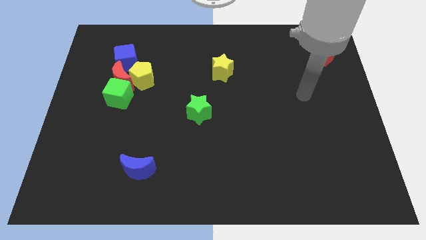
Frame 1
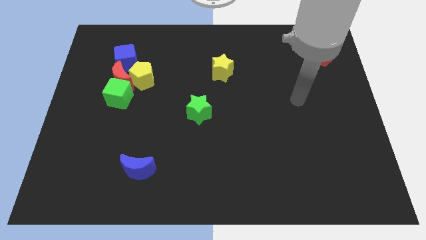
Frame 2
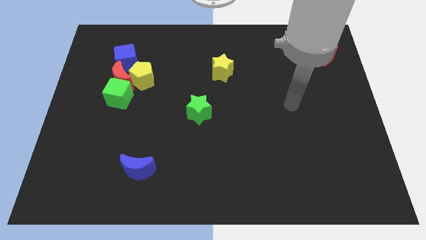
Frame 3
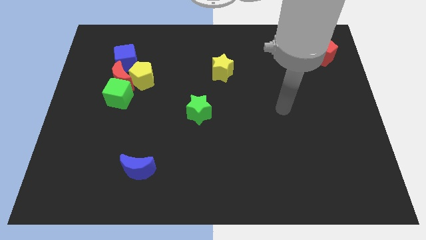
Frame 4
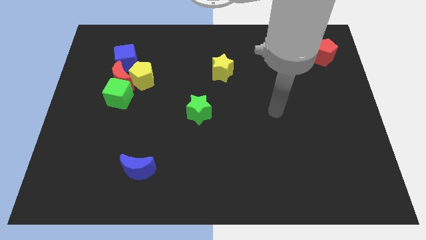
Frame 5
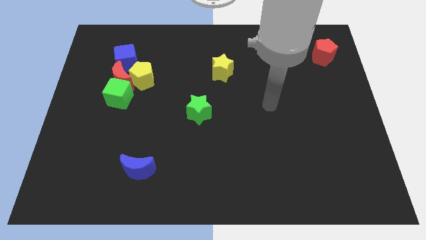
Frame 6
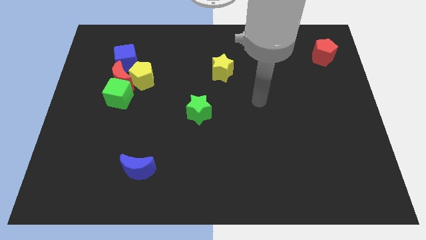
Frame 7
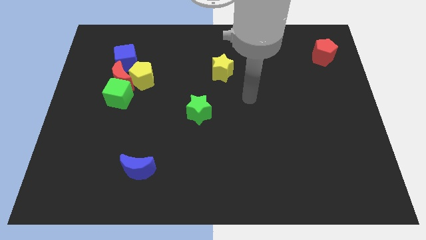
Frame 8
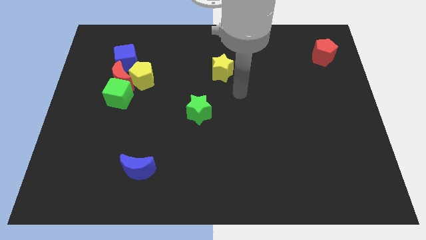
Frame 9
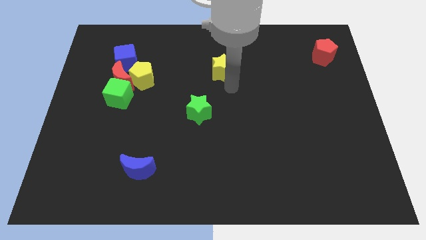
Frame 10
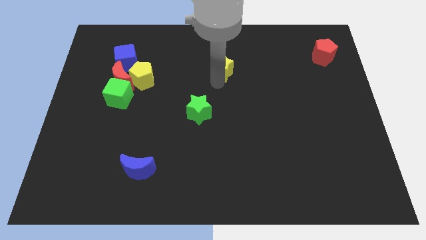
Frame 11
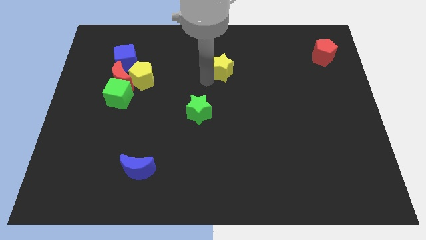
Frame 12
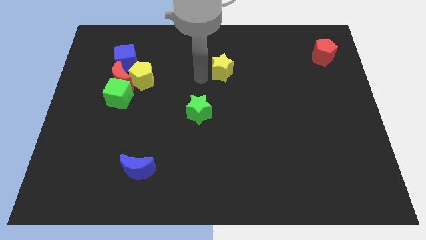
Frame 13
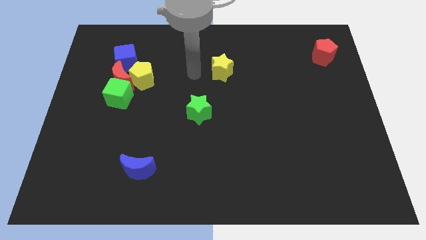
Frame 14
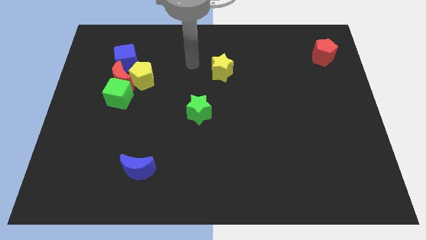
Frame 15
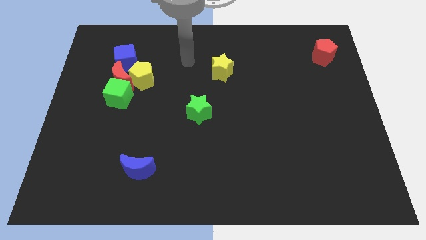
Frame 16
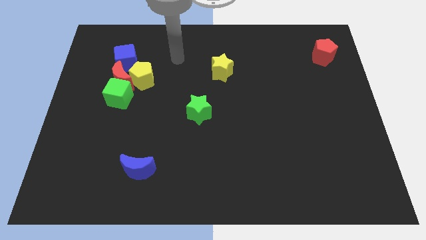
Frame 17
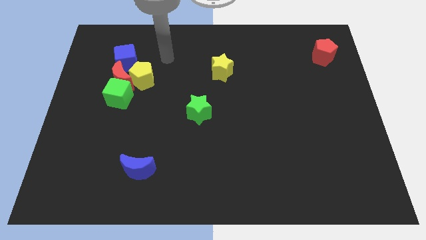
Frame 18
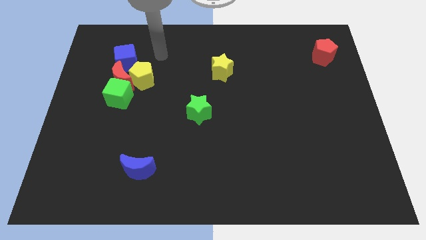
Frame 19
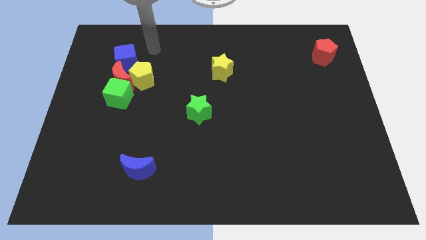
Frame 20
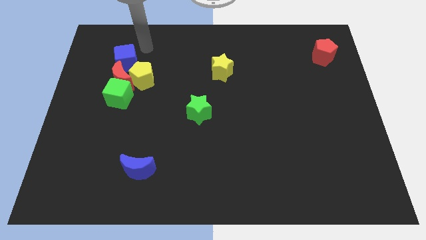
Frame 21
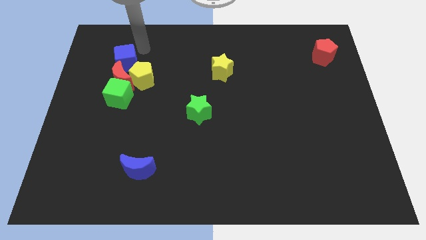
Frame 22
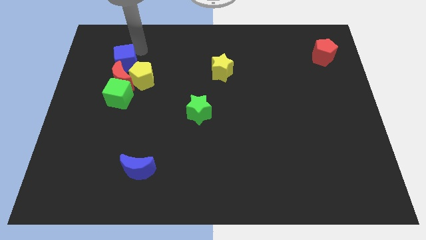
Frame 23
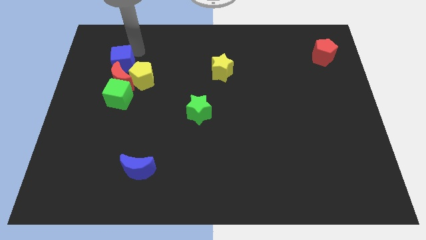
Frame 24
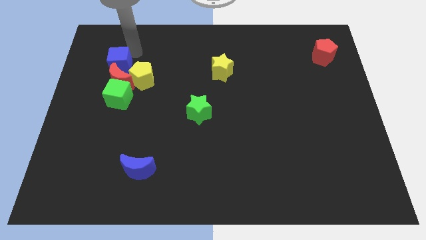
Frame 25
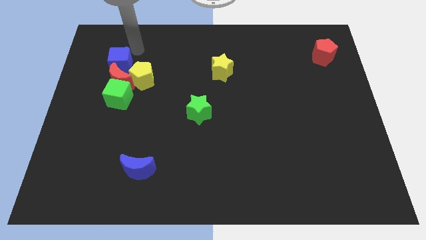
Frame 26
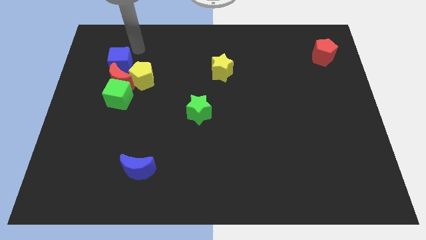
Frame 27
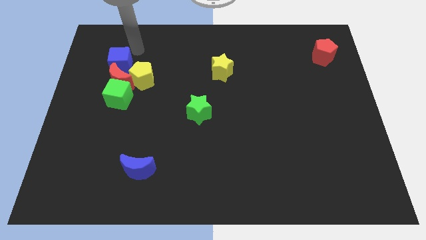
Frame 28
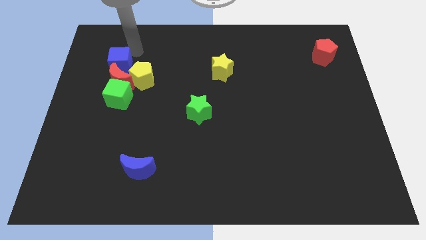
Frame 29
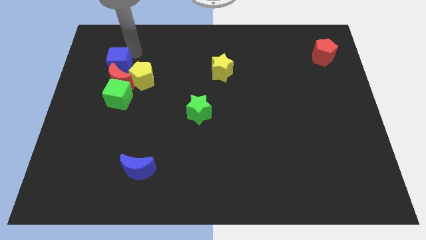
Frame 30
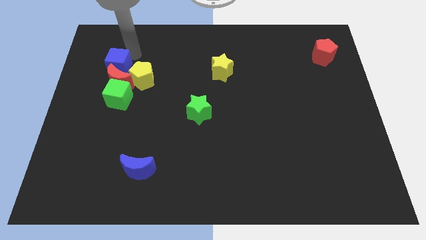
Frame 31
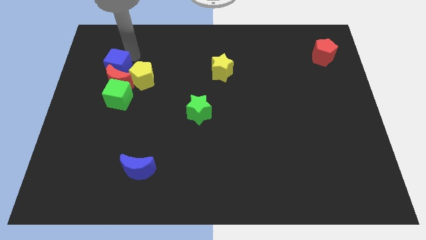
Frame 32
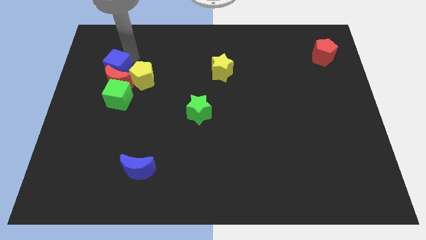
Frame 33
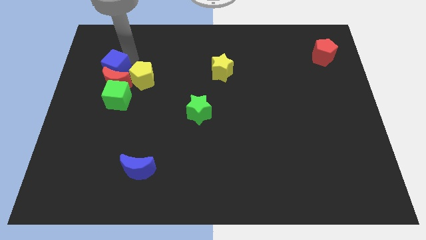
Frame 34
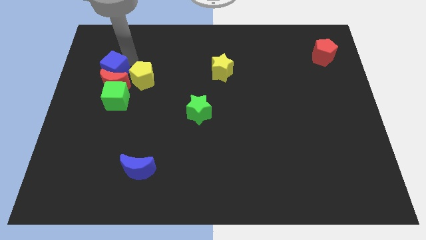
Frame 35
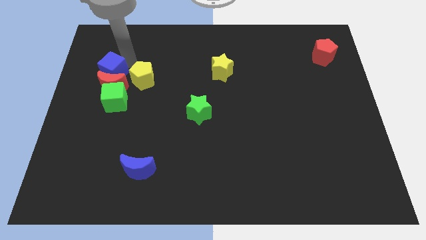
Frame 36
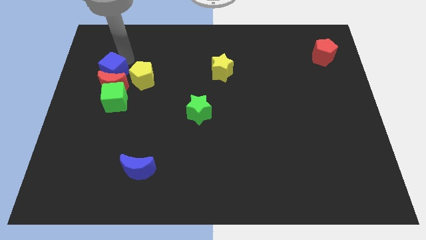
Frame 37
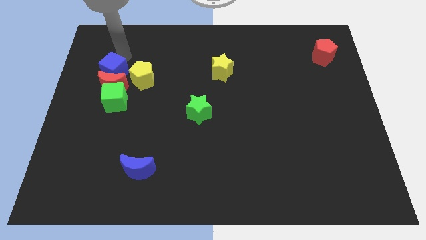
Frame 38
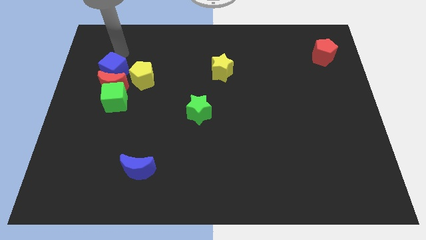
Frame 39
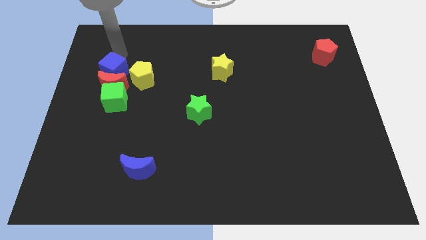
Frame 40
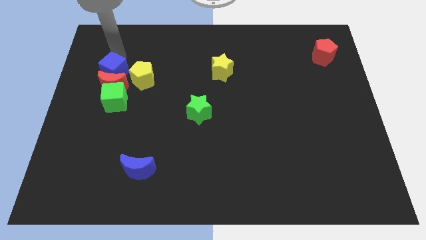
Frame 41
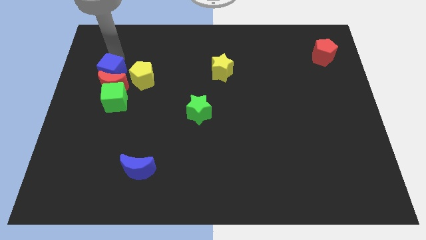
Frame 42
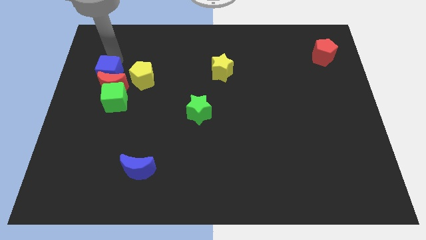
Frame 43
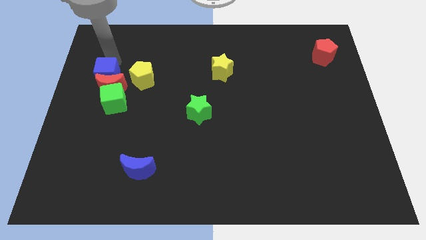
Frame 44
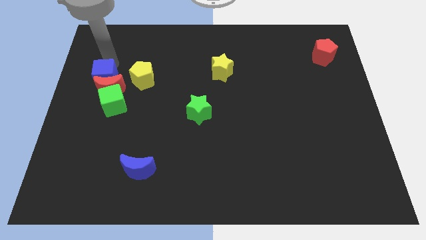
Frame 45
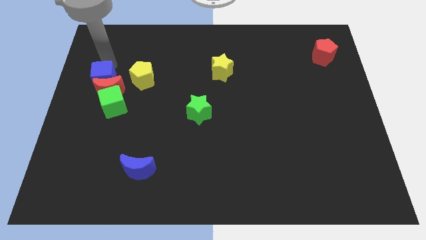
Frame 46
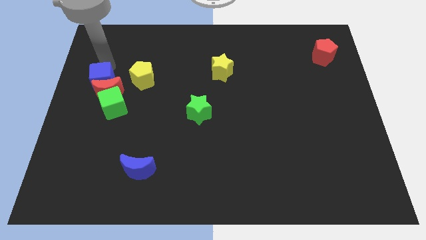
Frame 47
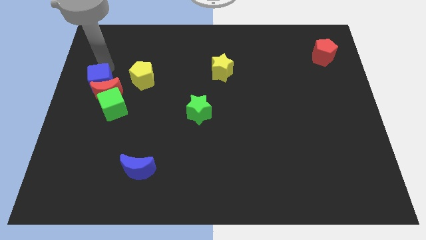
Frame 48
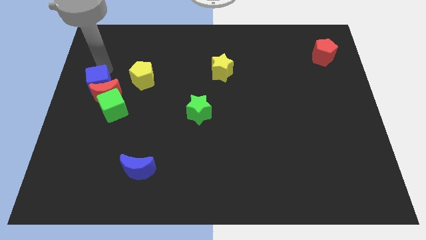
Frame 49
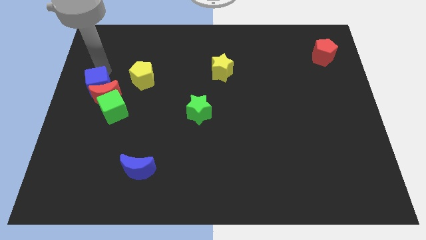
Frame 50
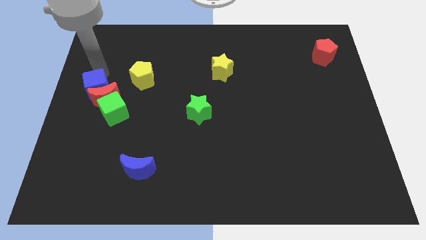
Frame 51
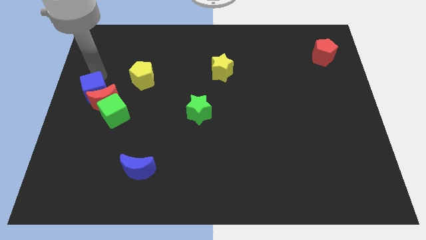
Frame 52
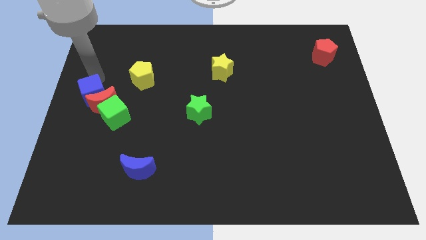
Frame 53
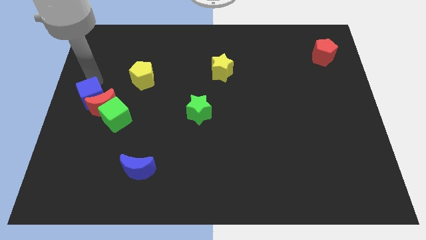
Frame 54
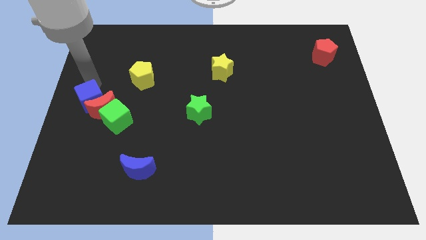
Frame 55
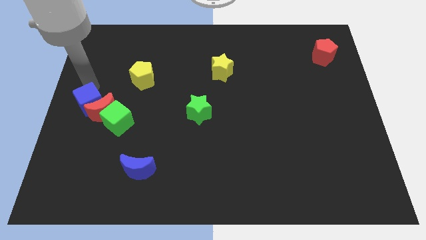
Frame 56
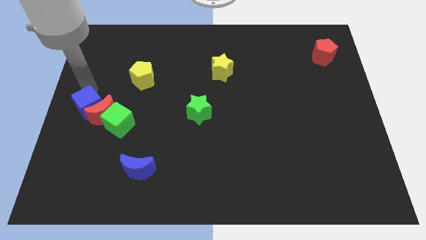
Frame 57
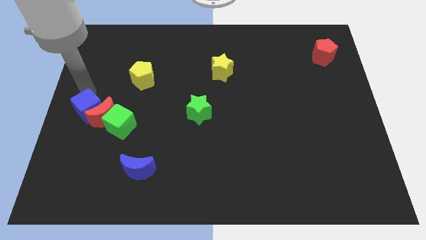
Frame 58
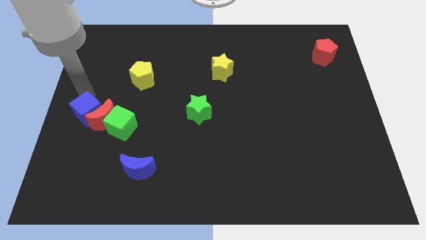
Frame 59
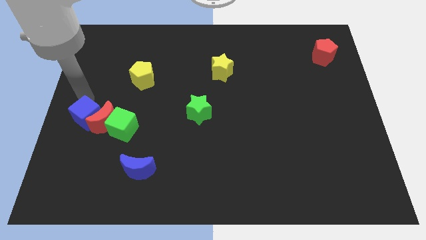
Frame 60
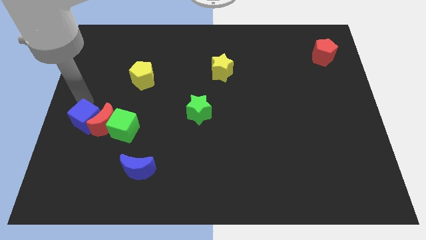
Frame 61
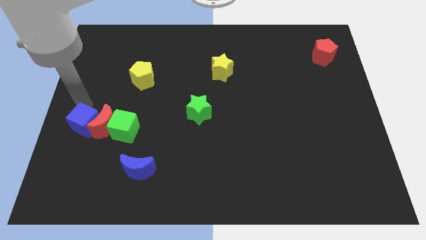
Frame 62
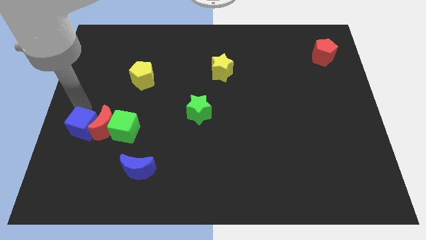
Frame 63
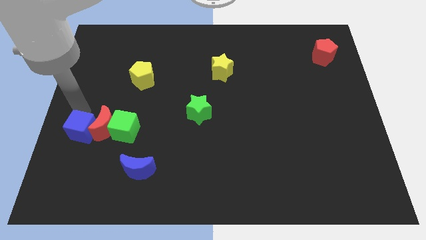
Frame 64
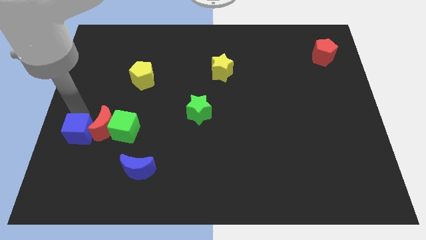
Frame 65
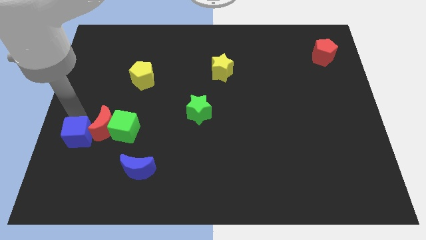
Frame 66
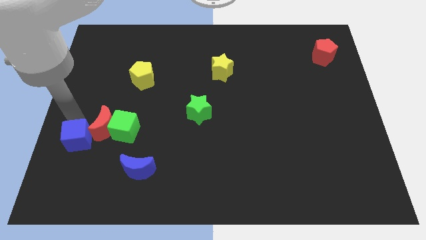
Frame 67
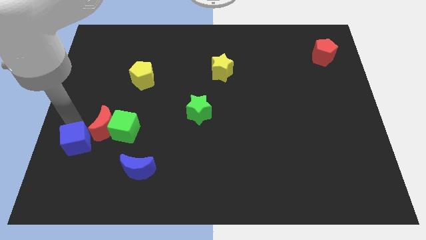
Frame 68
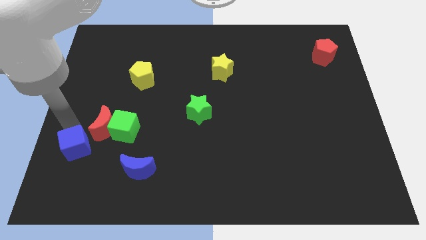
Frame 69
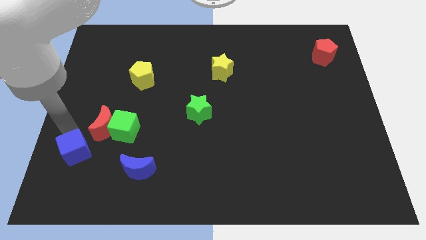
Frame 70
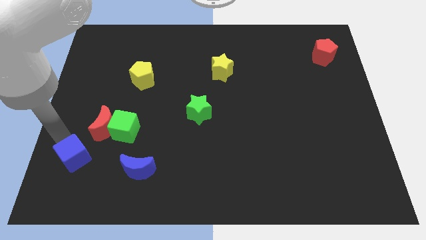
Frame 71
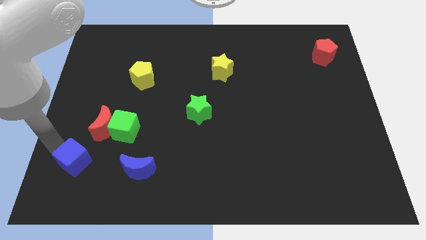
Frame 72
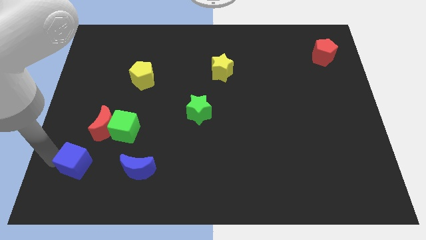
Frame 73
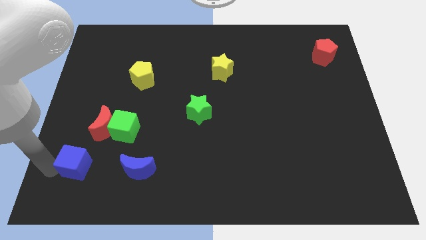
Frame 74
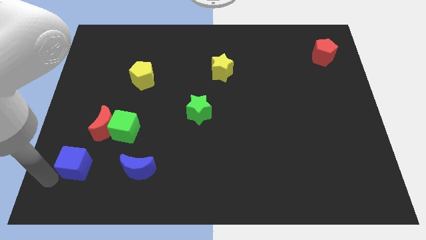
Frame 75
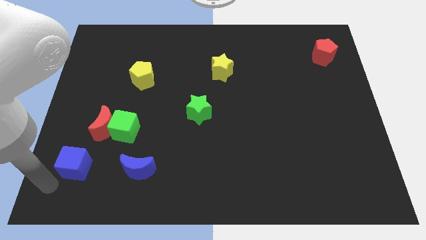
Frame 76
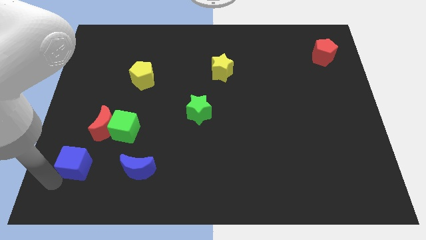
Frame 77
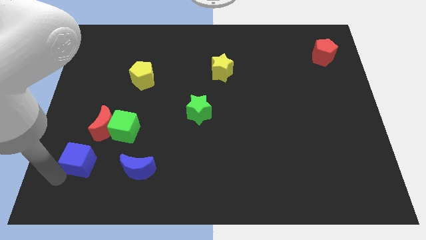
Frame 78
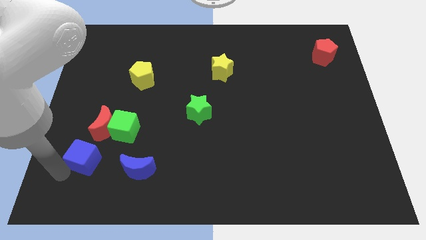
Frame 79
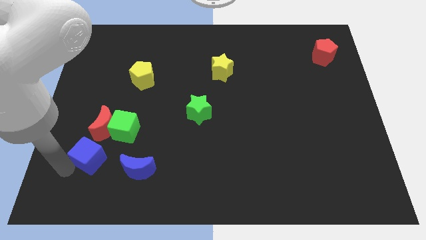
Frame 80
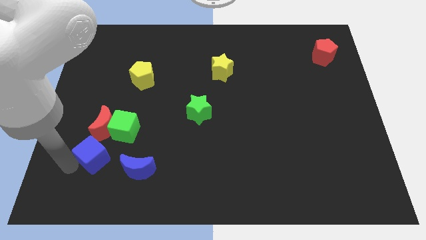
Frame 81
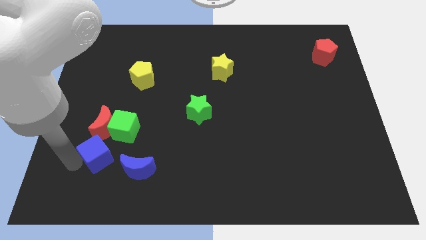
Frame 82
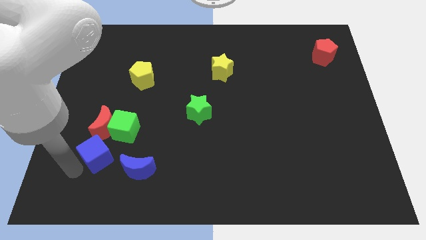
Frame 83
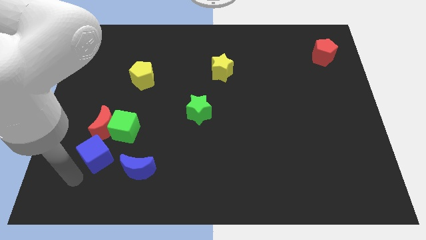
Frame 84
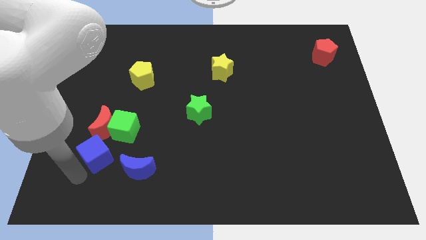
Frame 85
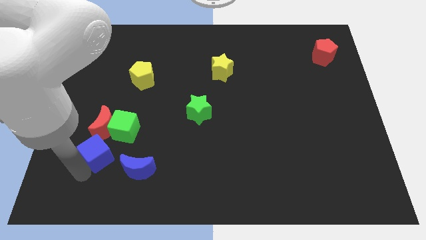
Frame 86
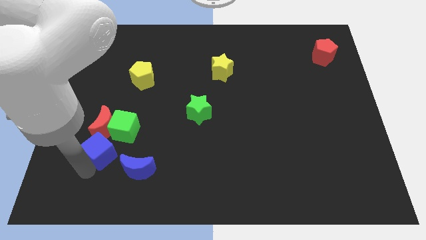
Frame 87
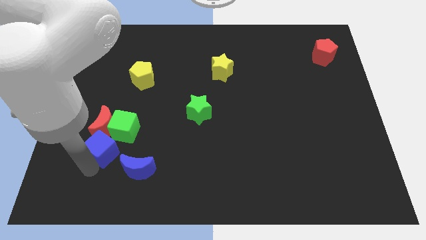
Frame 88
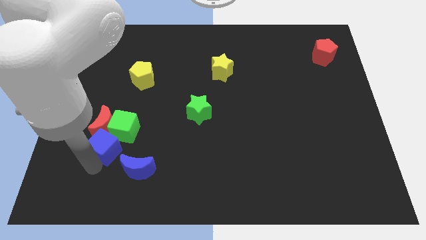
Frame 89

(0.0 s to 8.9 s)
slide the blue cube towards the green cube
